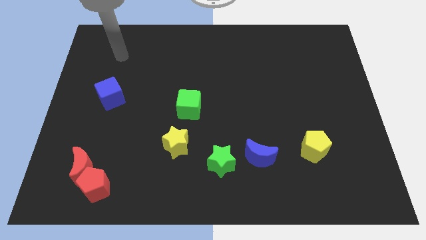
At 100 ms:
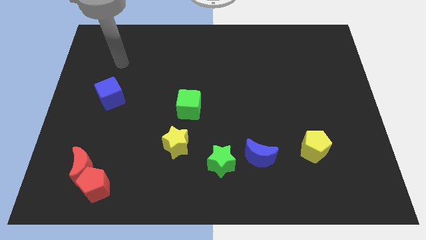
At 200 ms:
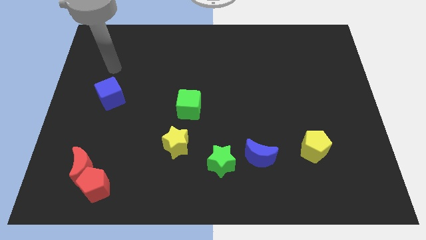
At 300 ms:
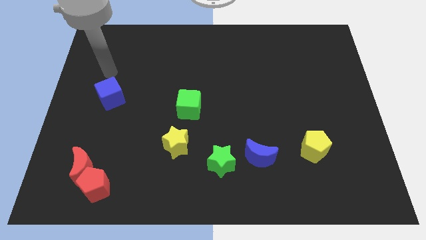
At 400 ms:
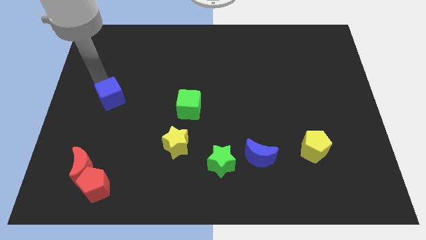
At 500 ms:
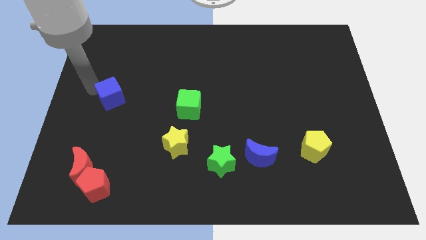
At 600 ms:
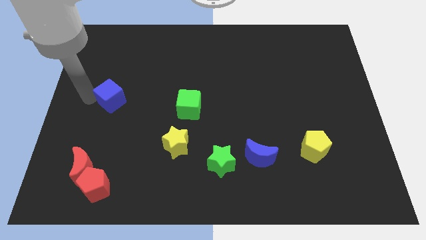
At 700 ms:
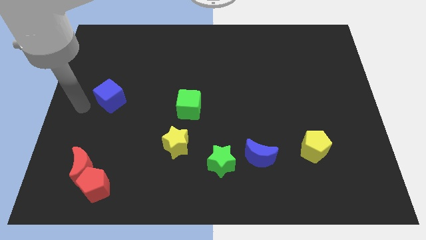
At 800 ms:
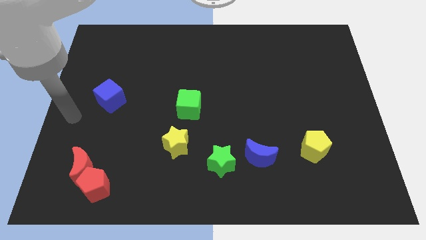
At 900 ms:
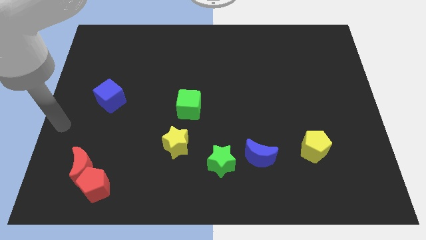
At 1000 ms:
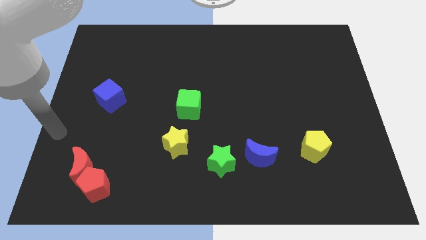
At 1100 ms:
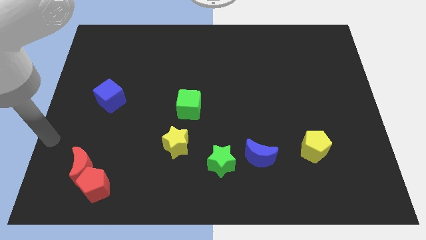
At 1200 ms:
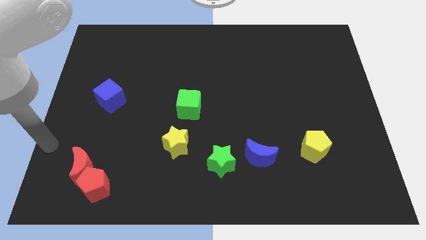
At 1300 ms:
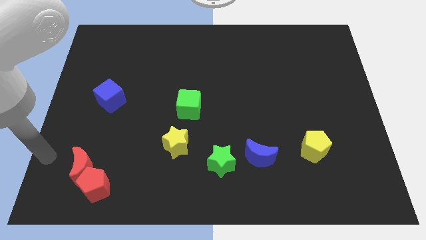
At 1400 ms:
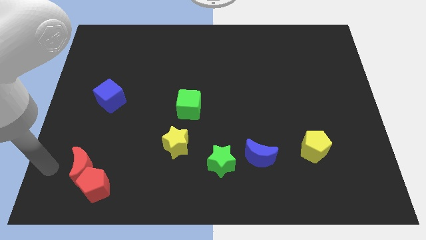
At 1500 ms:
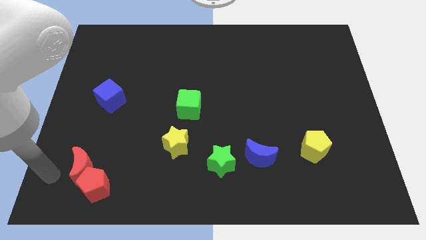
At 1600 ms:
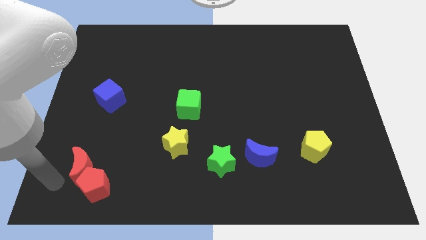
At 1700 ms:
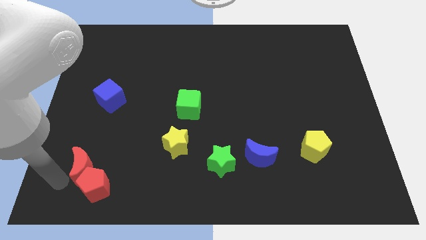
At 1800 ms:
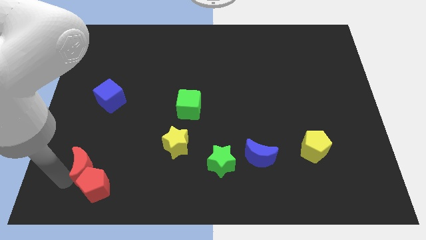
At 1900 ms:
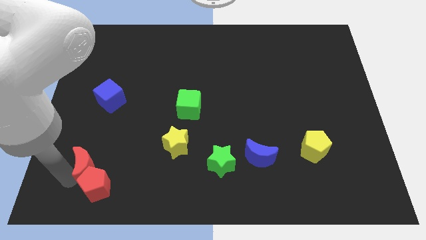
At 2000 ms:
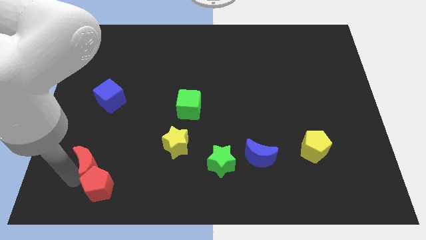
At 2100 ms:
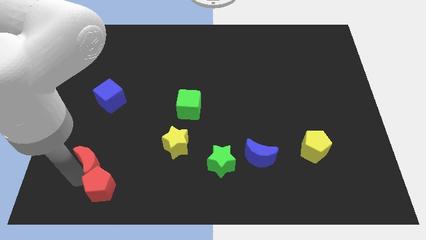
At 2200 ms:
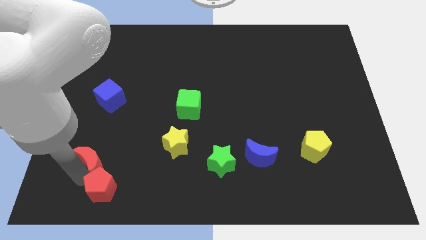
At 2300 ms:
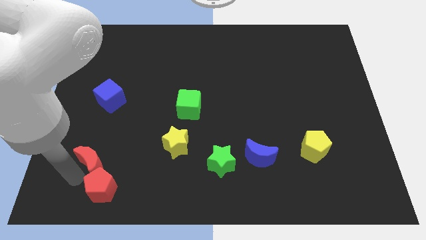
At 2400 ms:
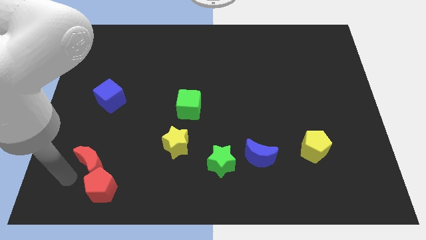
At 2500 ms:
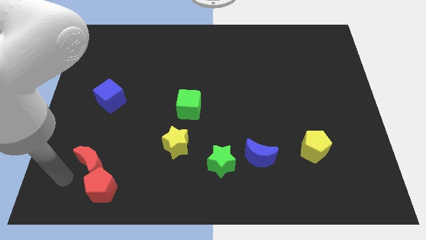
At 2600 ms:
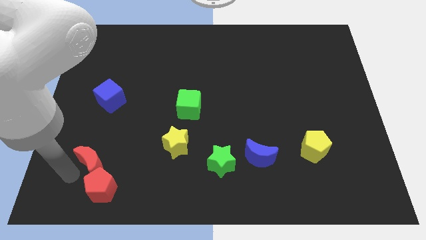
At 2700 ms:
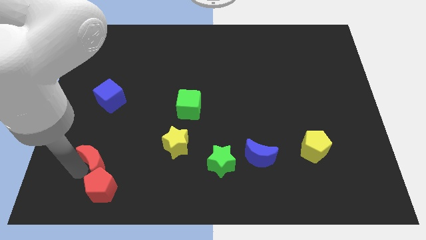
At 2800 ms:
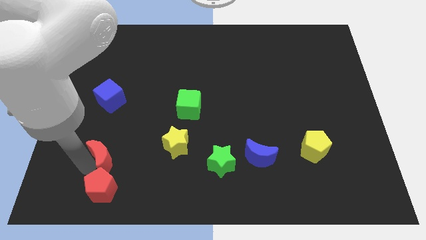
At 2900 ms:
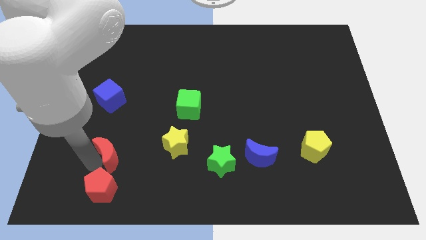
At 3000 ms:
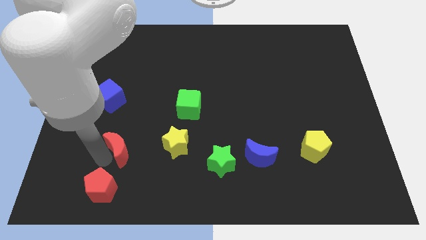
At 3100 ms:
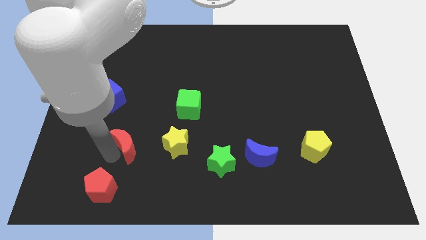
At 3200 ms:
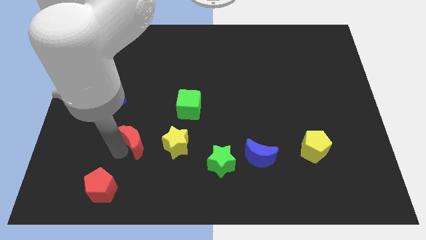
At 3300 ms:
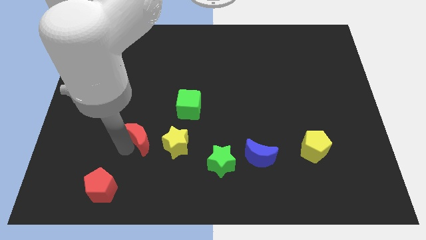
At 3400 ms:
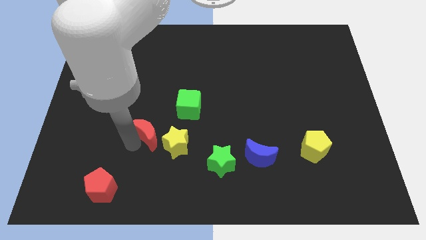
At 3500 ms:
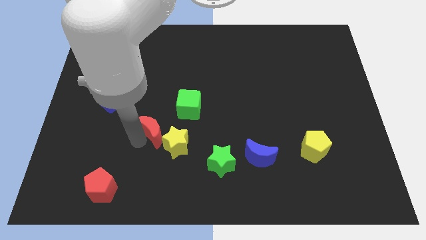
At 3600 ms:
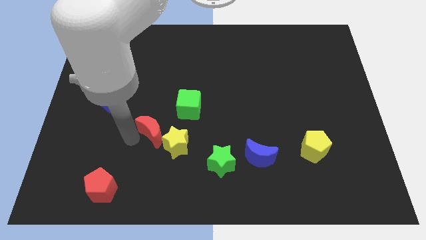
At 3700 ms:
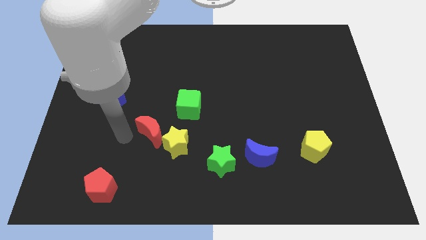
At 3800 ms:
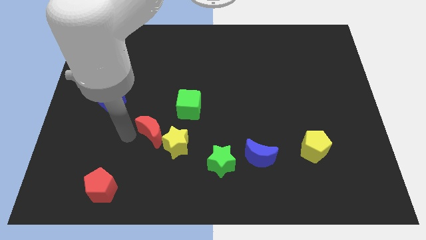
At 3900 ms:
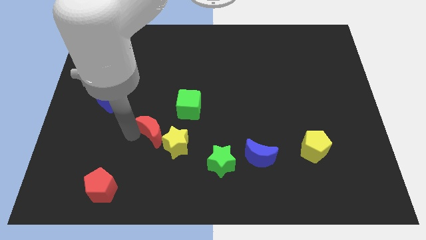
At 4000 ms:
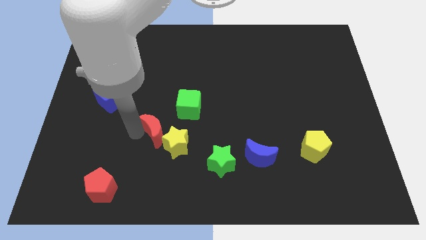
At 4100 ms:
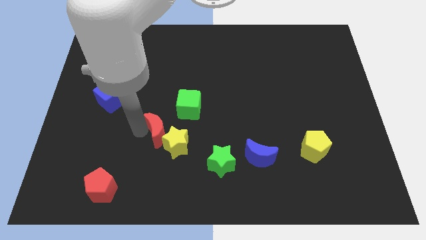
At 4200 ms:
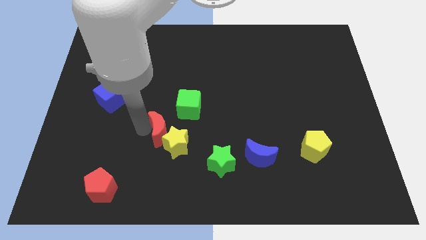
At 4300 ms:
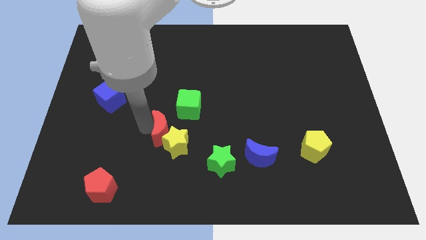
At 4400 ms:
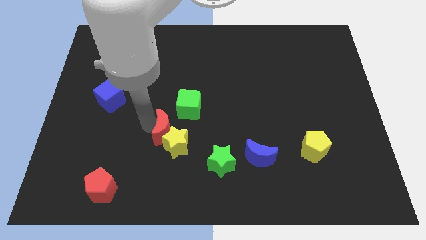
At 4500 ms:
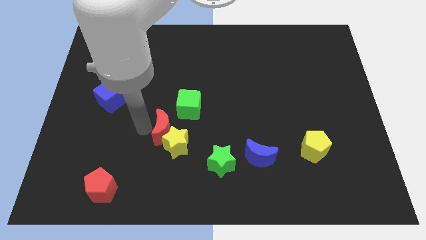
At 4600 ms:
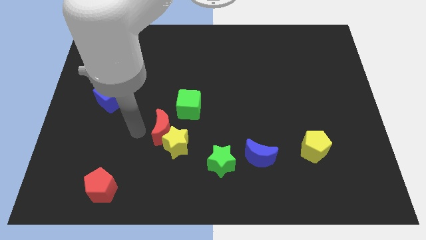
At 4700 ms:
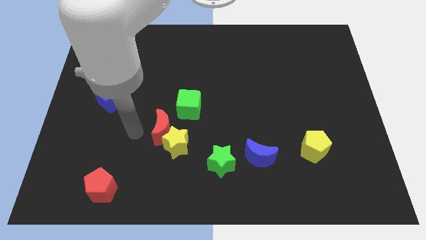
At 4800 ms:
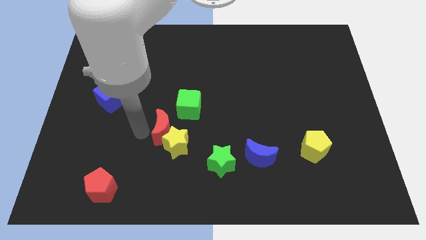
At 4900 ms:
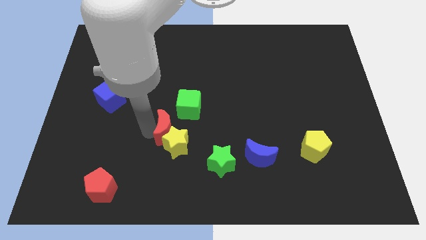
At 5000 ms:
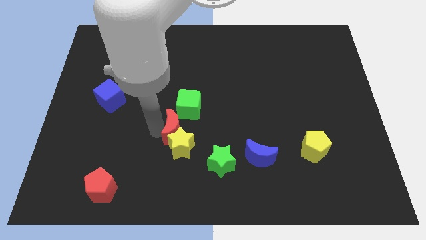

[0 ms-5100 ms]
put the red moon to the center

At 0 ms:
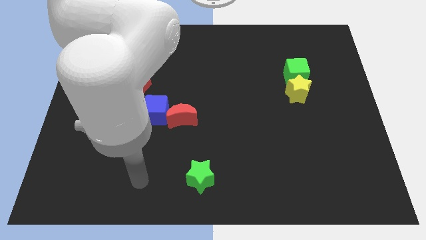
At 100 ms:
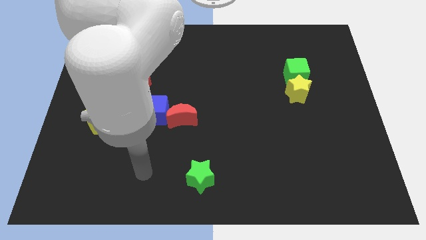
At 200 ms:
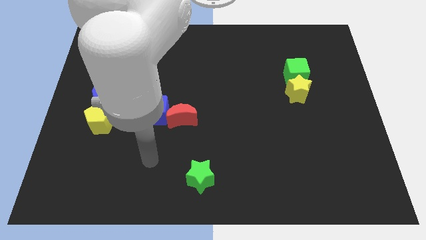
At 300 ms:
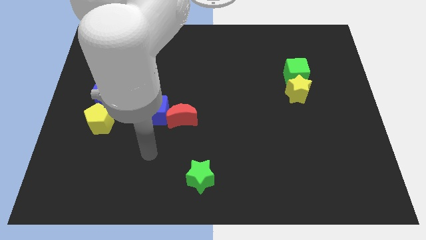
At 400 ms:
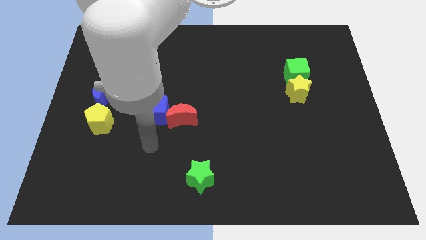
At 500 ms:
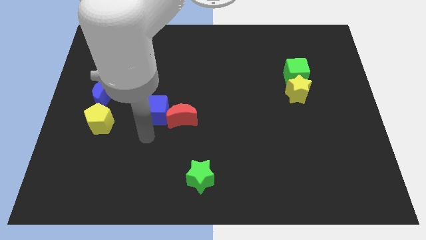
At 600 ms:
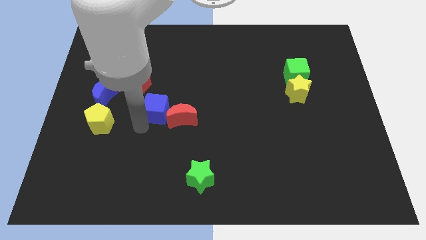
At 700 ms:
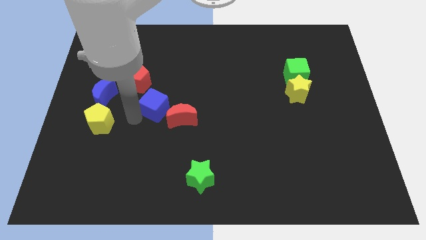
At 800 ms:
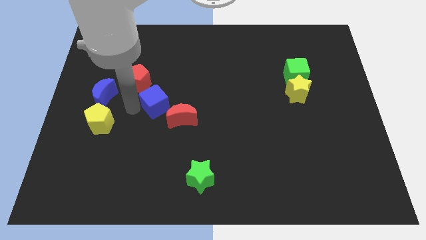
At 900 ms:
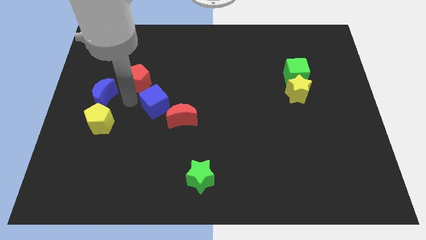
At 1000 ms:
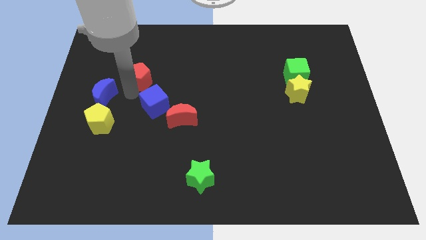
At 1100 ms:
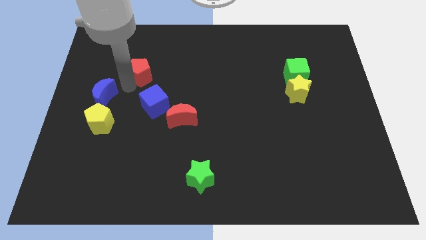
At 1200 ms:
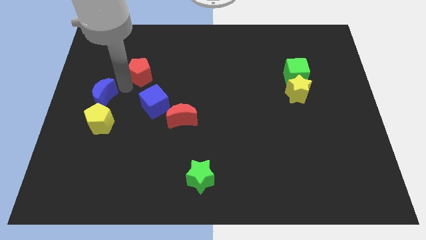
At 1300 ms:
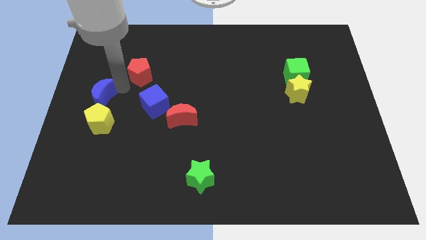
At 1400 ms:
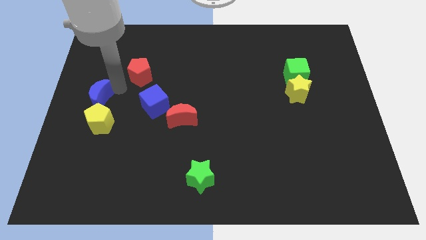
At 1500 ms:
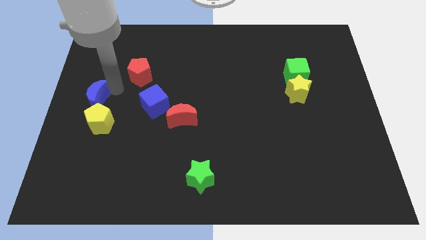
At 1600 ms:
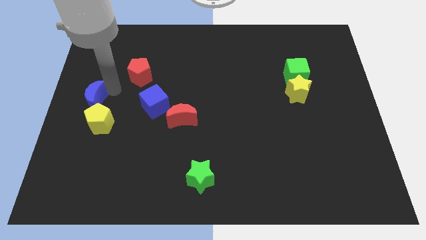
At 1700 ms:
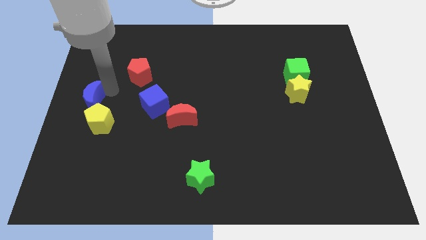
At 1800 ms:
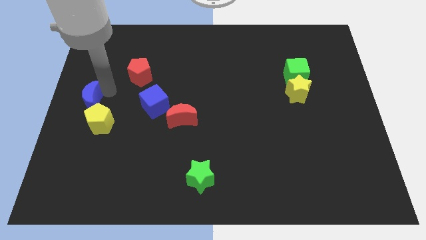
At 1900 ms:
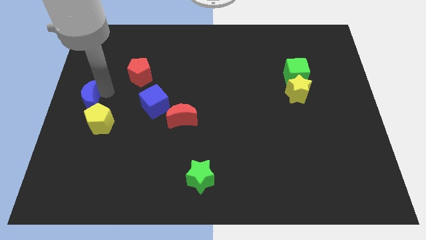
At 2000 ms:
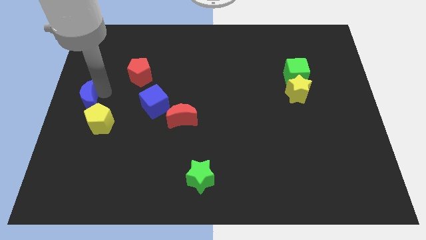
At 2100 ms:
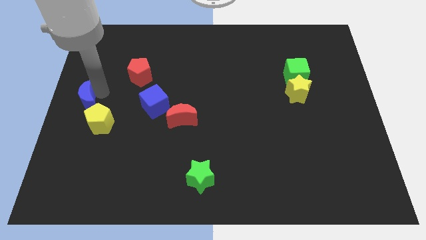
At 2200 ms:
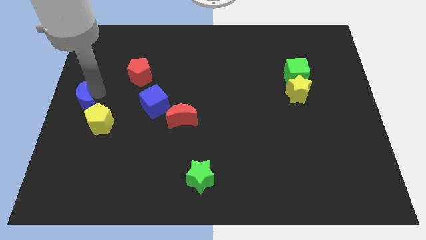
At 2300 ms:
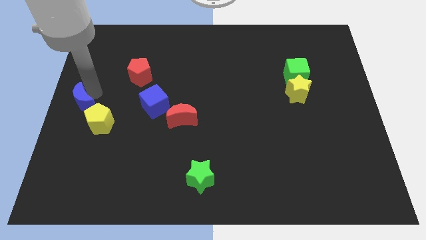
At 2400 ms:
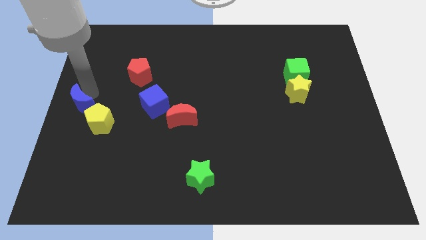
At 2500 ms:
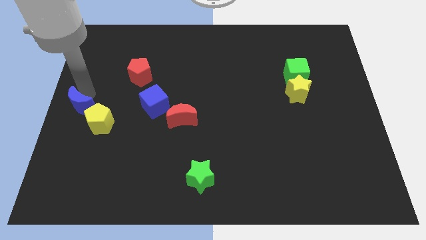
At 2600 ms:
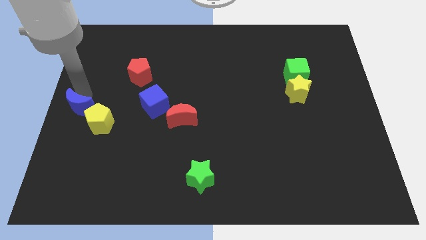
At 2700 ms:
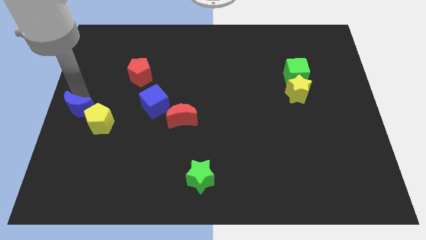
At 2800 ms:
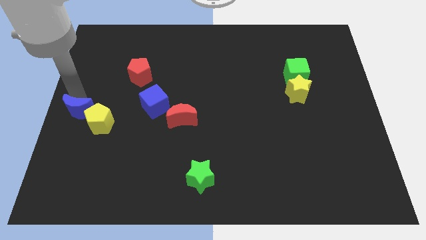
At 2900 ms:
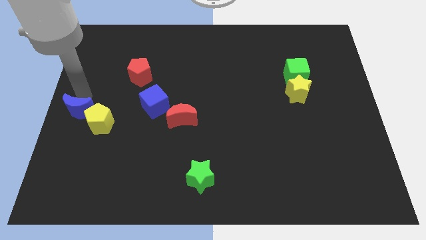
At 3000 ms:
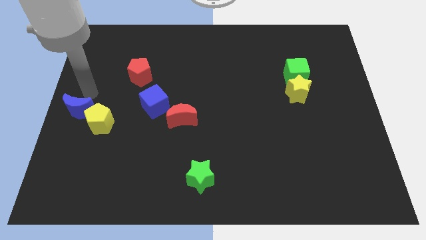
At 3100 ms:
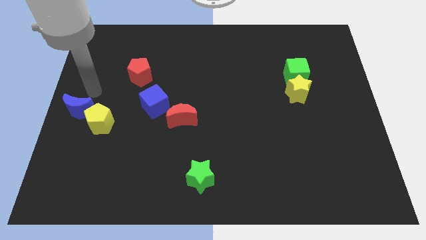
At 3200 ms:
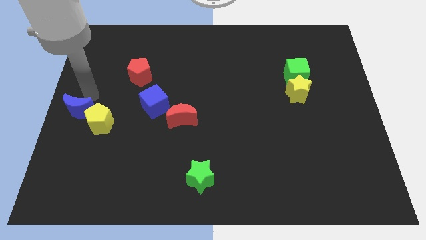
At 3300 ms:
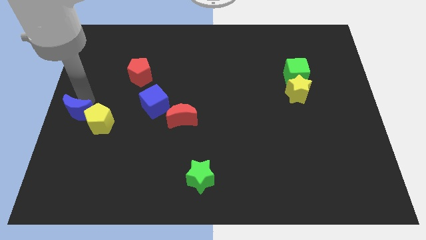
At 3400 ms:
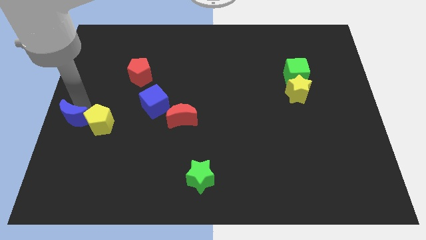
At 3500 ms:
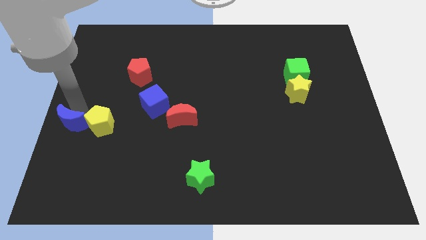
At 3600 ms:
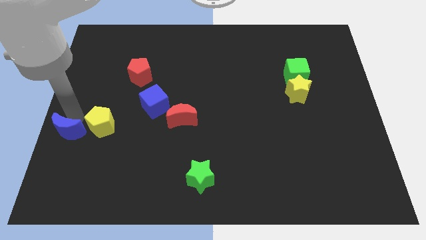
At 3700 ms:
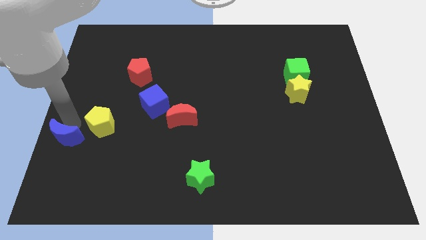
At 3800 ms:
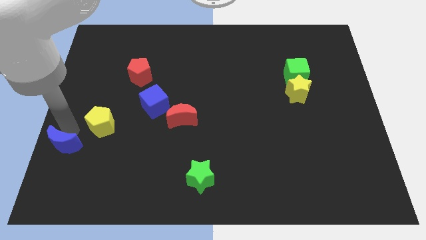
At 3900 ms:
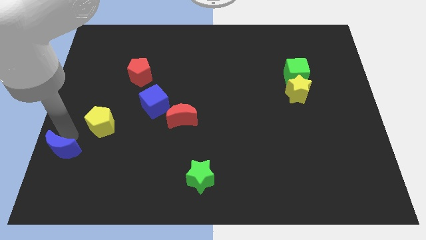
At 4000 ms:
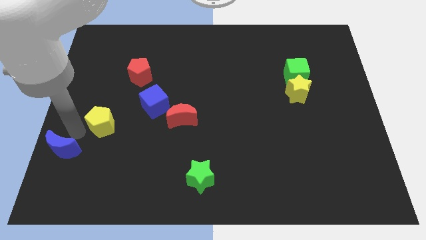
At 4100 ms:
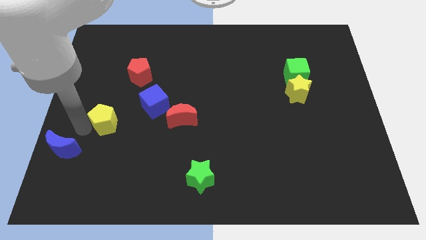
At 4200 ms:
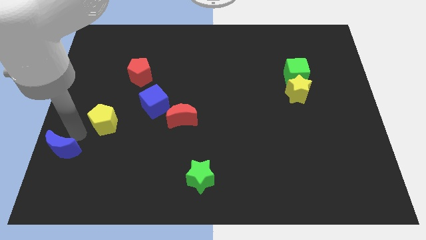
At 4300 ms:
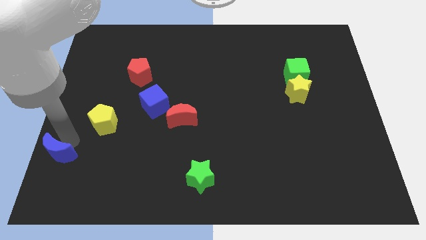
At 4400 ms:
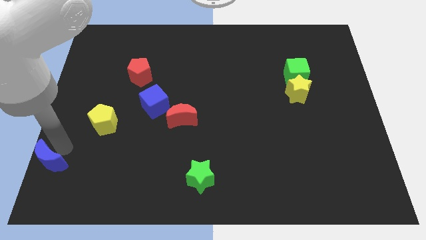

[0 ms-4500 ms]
push the blue moon to the bottom left
